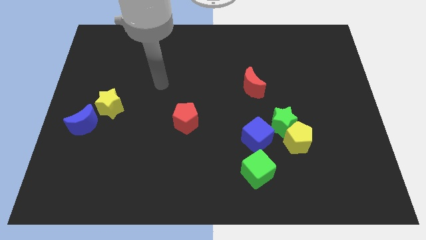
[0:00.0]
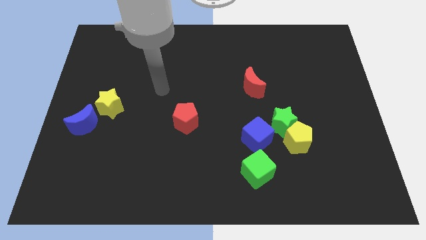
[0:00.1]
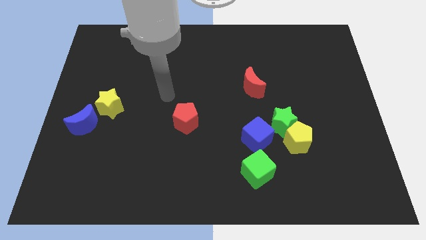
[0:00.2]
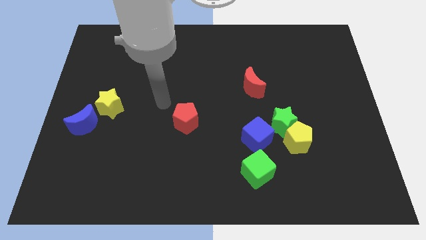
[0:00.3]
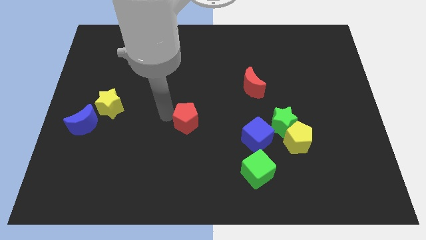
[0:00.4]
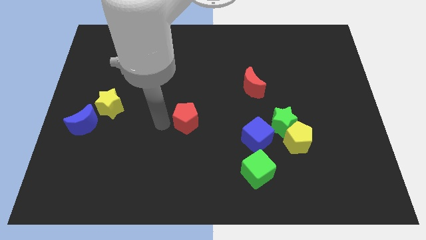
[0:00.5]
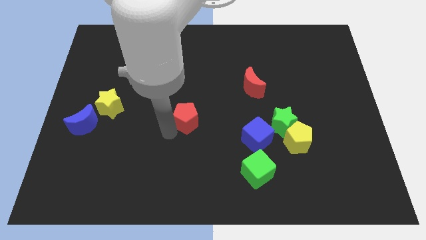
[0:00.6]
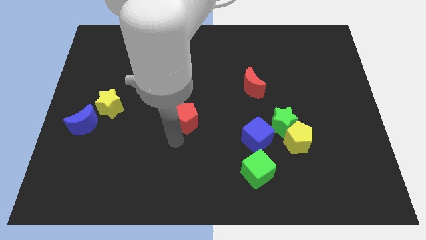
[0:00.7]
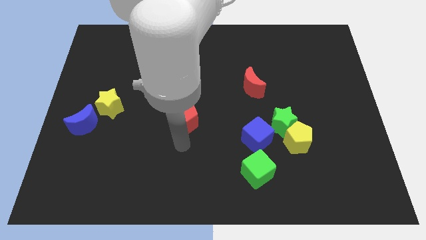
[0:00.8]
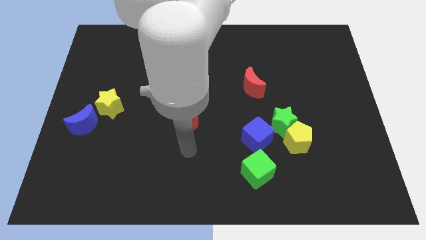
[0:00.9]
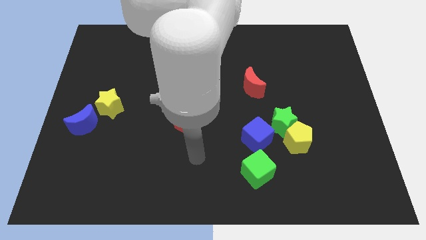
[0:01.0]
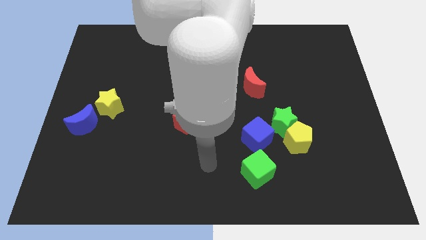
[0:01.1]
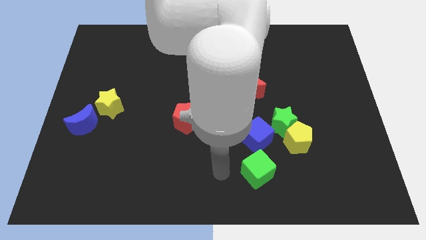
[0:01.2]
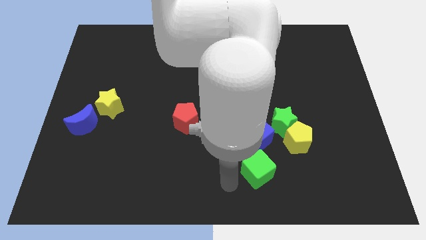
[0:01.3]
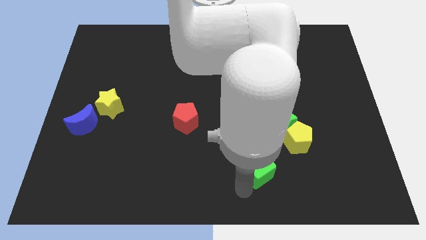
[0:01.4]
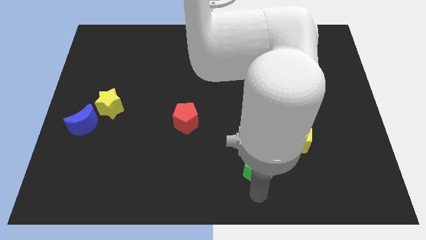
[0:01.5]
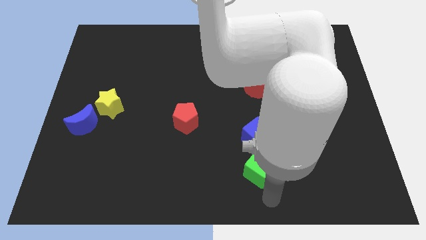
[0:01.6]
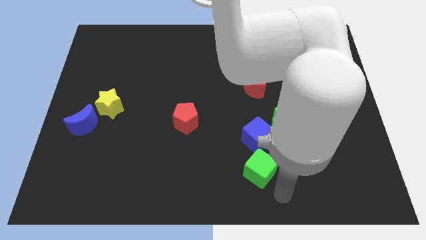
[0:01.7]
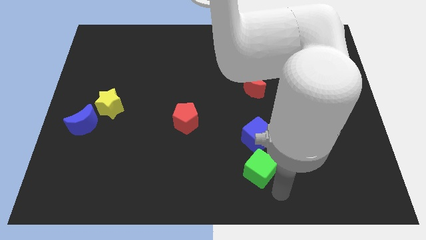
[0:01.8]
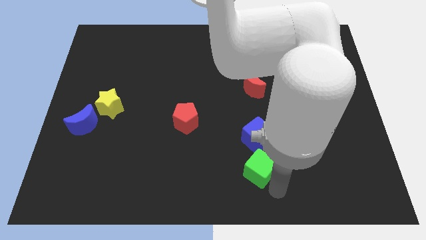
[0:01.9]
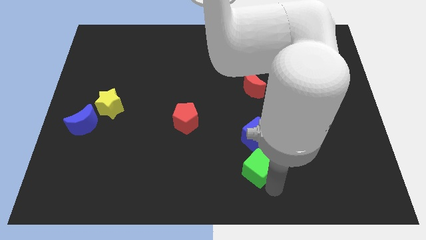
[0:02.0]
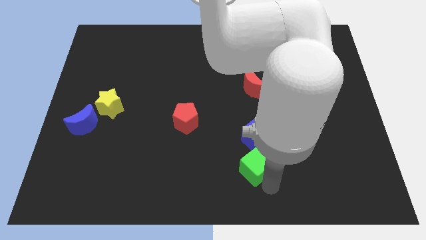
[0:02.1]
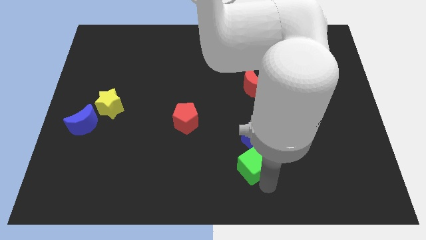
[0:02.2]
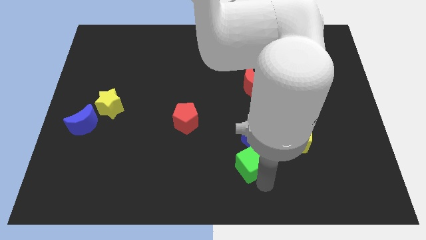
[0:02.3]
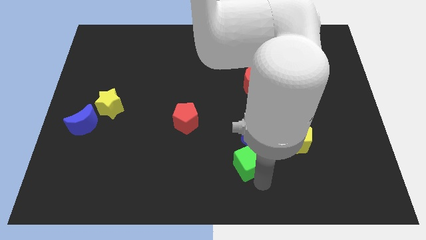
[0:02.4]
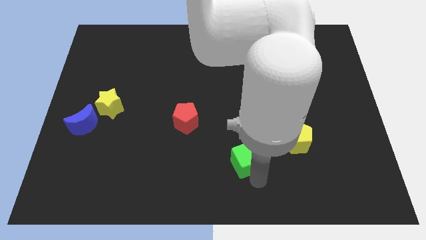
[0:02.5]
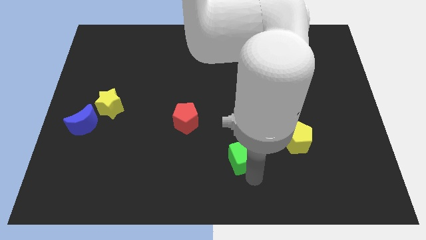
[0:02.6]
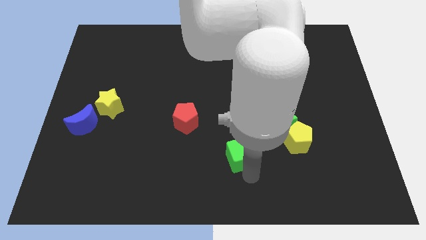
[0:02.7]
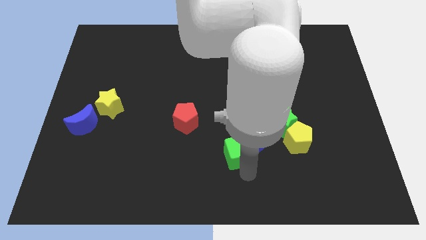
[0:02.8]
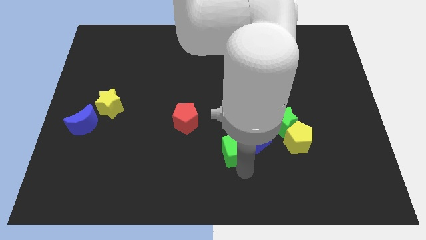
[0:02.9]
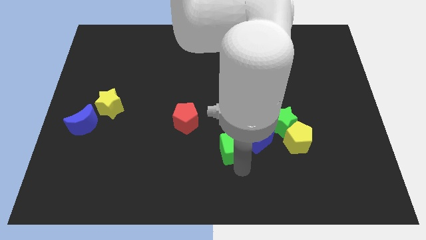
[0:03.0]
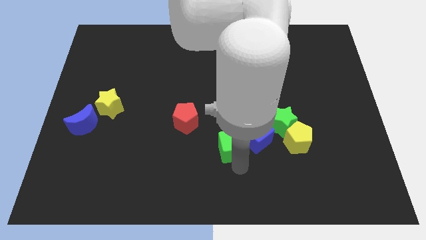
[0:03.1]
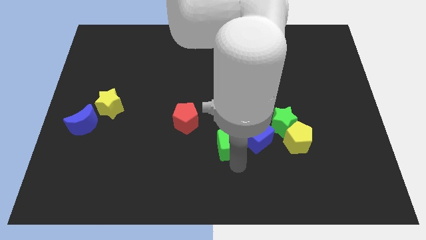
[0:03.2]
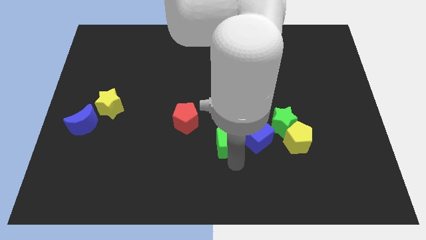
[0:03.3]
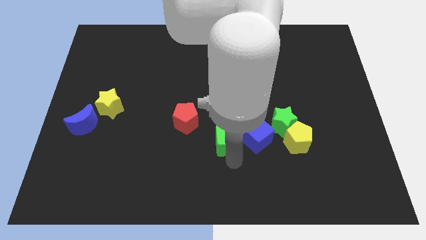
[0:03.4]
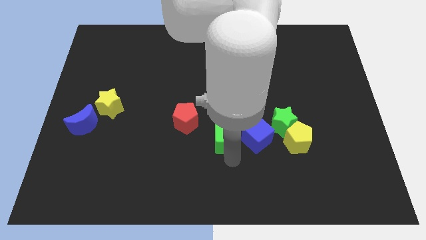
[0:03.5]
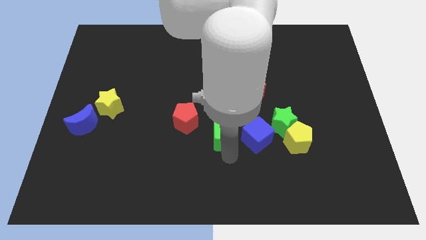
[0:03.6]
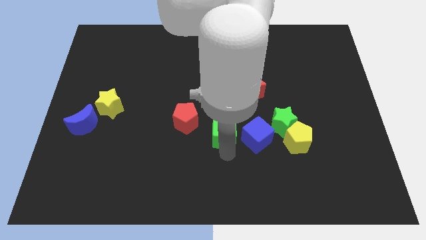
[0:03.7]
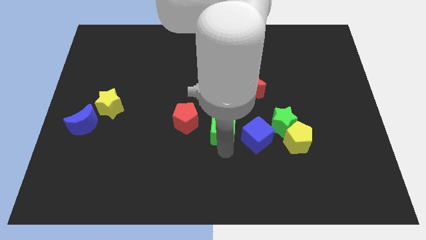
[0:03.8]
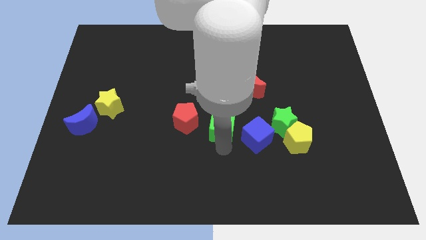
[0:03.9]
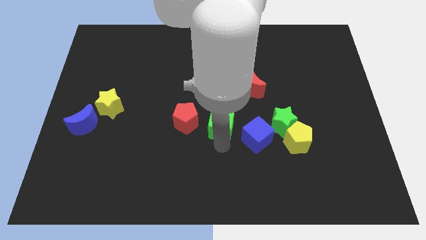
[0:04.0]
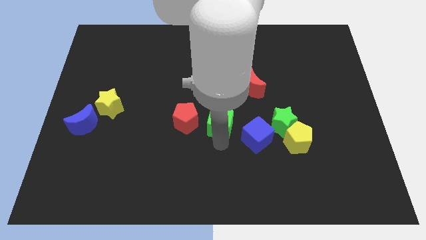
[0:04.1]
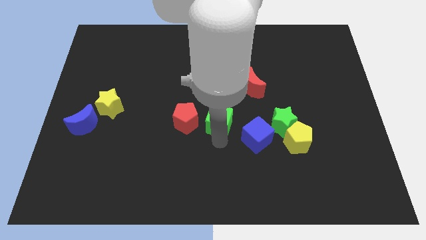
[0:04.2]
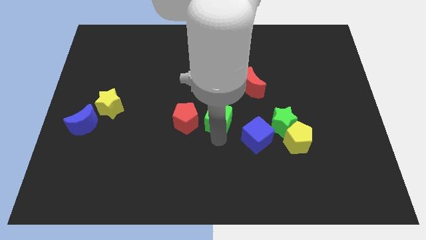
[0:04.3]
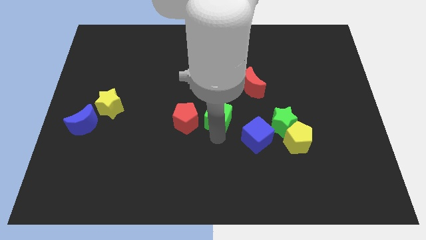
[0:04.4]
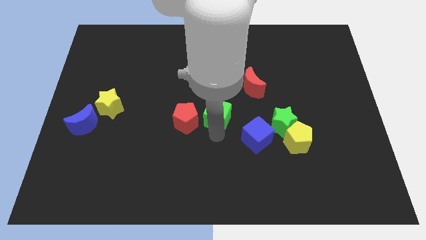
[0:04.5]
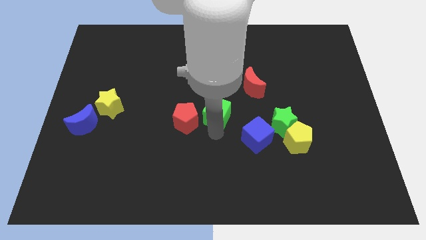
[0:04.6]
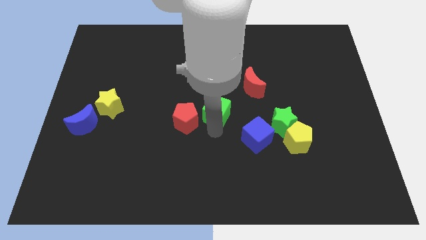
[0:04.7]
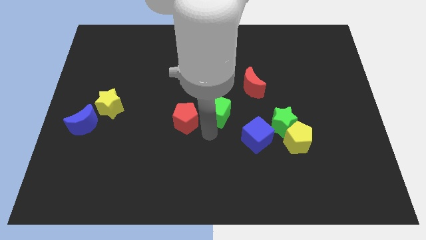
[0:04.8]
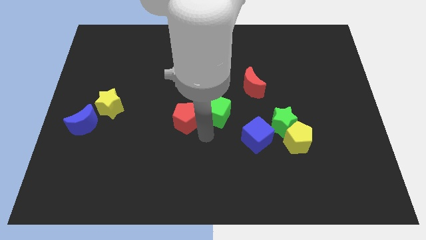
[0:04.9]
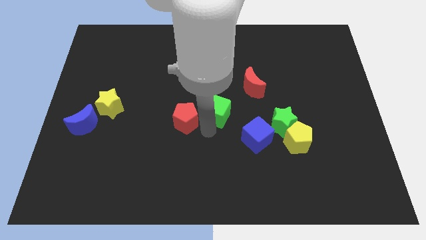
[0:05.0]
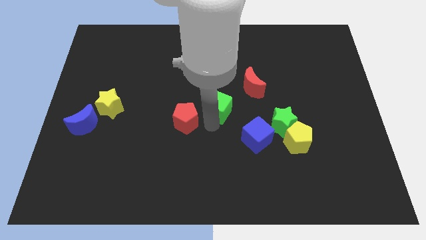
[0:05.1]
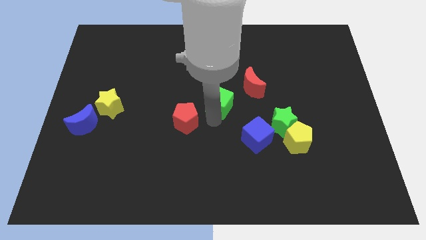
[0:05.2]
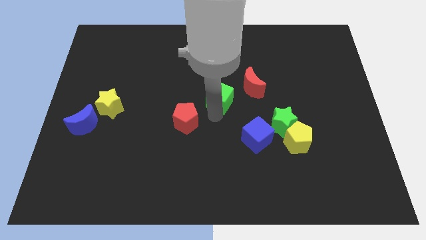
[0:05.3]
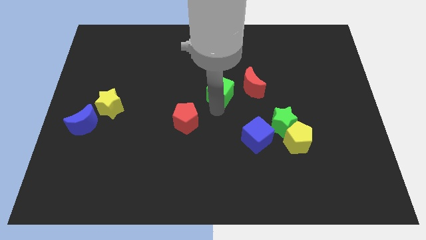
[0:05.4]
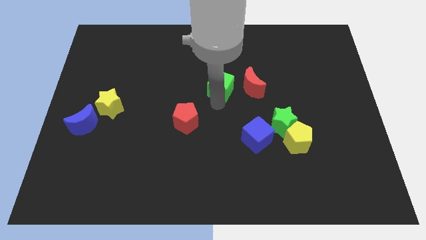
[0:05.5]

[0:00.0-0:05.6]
push the green cube up

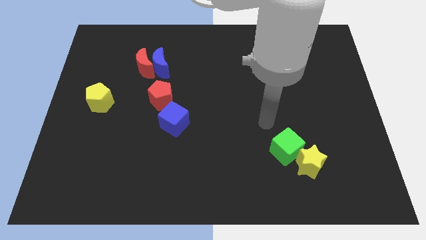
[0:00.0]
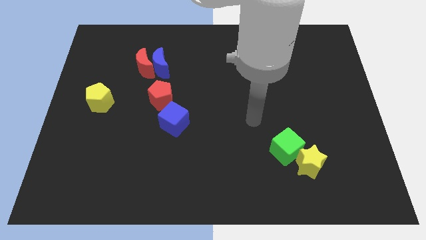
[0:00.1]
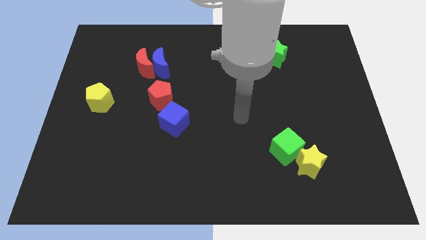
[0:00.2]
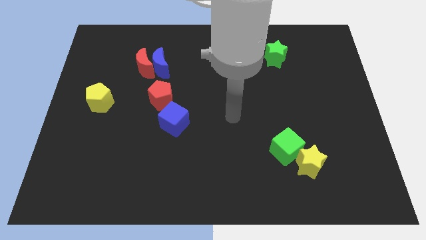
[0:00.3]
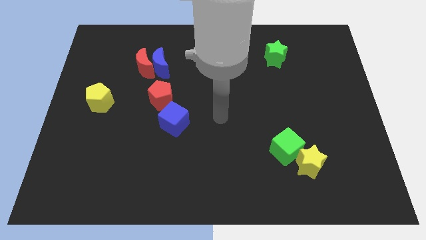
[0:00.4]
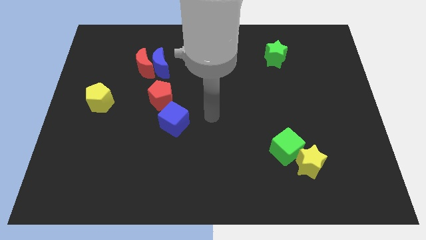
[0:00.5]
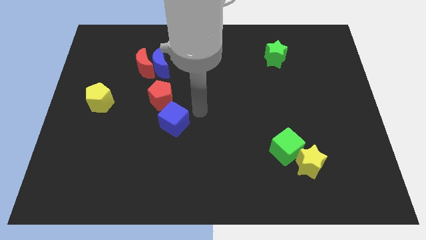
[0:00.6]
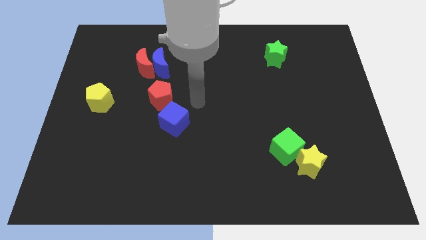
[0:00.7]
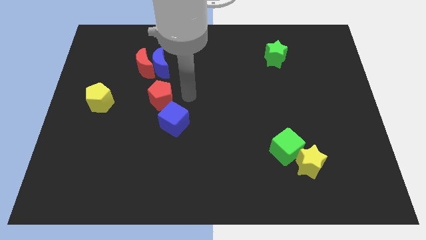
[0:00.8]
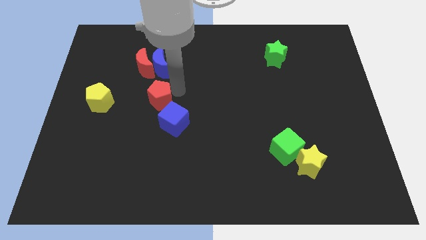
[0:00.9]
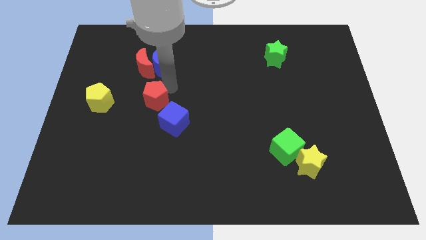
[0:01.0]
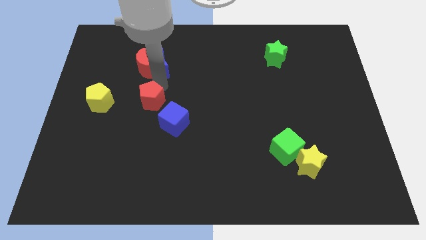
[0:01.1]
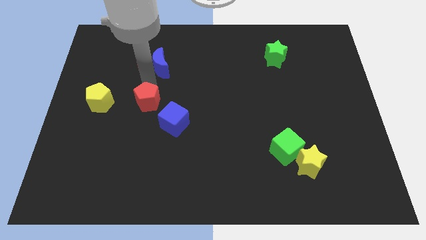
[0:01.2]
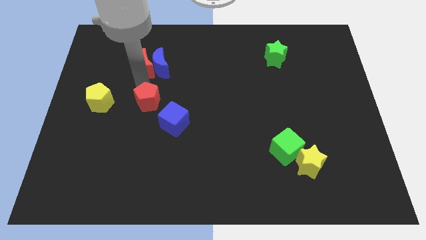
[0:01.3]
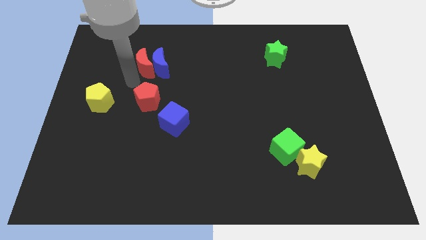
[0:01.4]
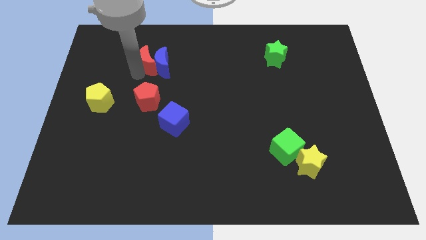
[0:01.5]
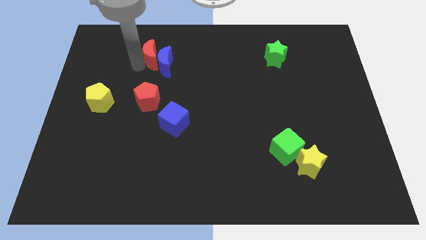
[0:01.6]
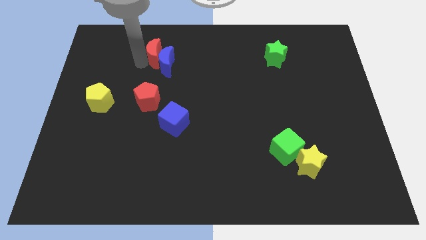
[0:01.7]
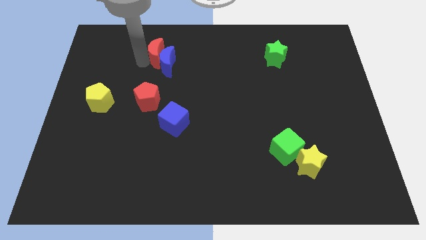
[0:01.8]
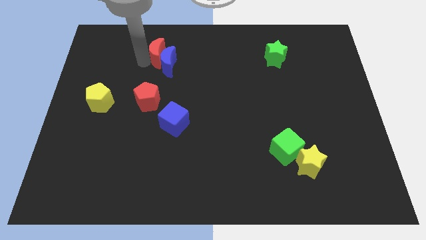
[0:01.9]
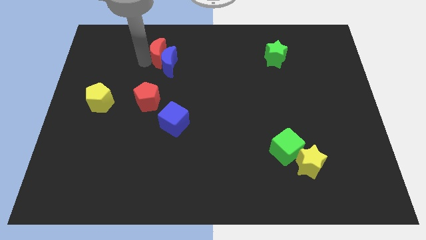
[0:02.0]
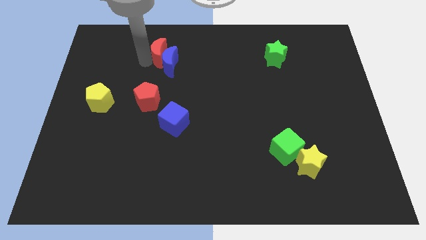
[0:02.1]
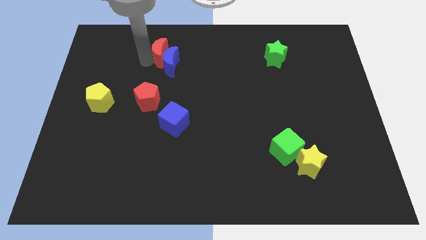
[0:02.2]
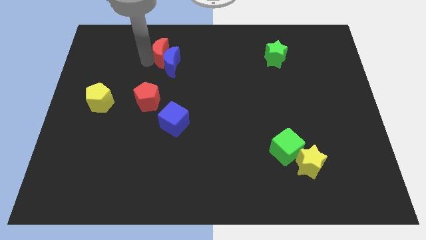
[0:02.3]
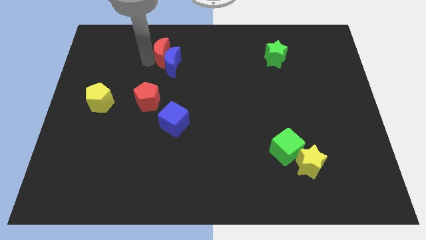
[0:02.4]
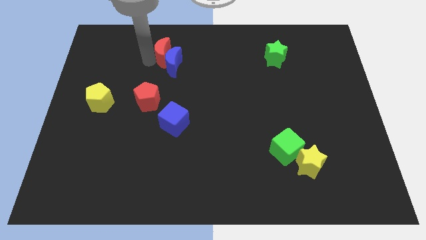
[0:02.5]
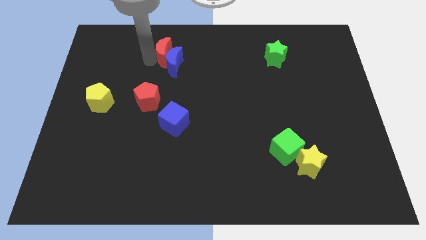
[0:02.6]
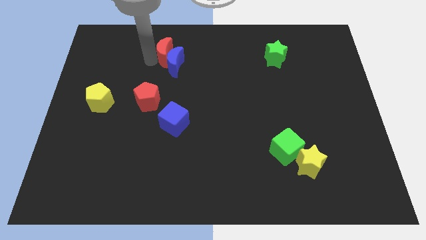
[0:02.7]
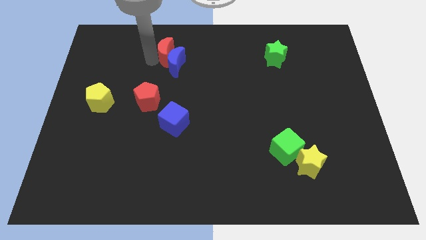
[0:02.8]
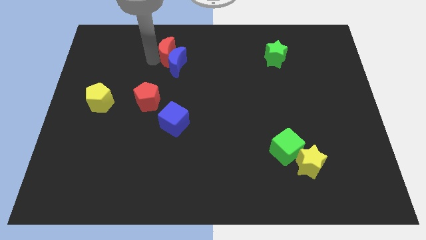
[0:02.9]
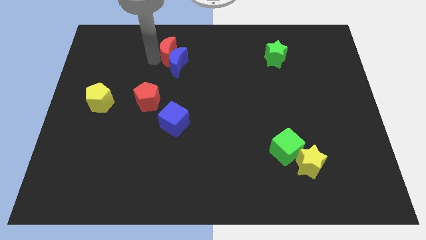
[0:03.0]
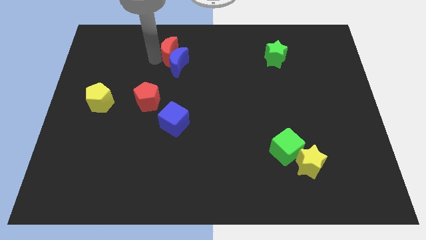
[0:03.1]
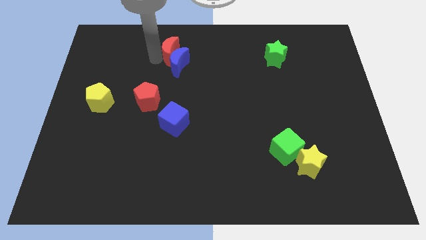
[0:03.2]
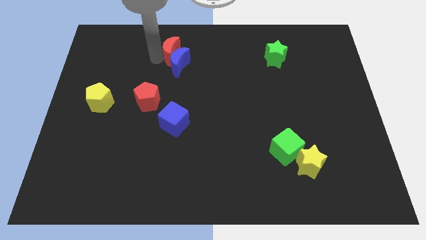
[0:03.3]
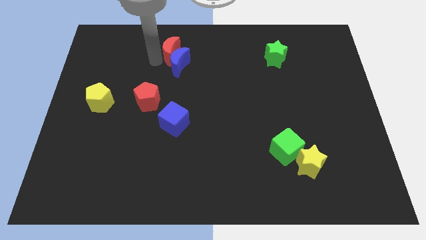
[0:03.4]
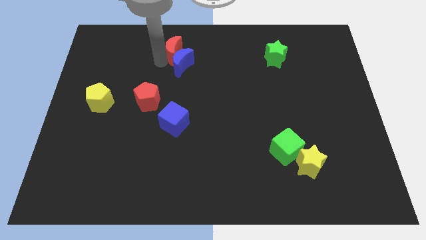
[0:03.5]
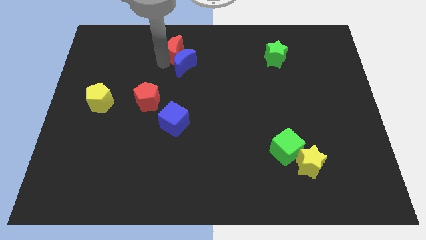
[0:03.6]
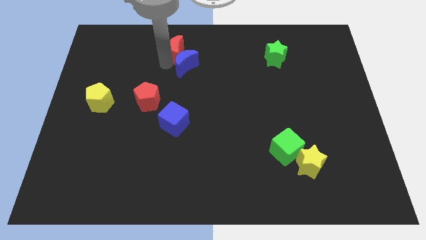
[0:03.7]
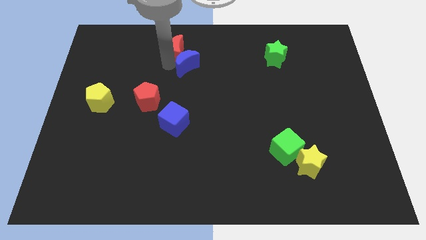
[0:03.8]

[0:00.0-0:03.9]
slightly slide the blue moon right
